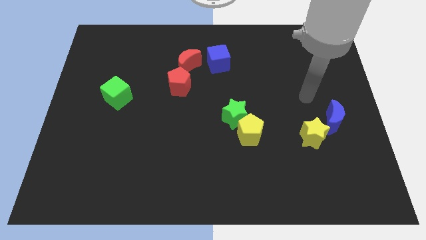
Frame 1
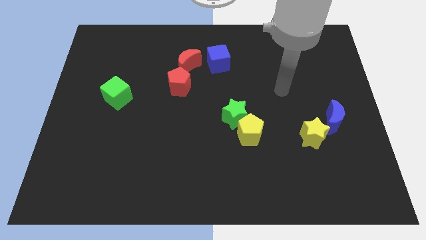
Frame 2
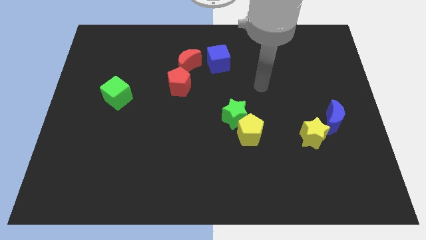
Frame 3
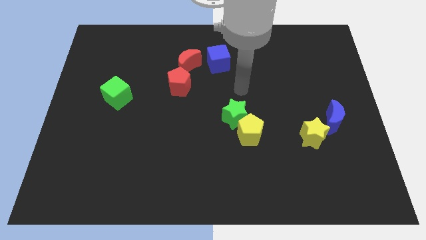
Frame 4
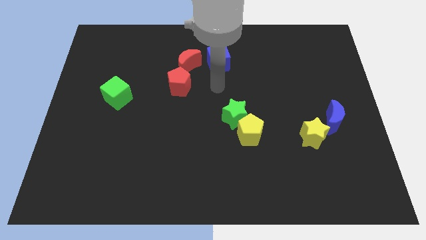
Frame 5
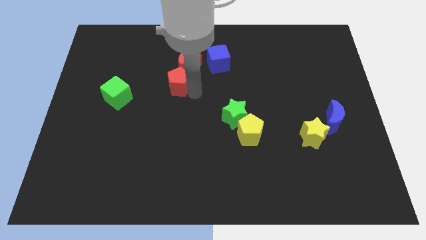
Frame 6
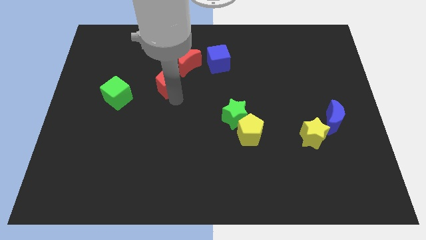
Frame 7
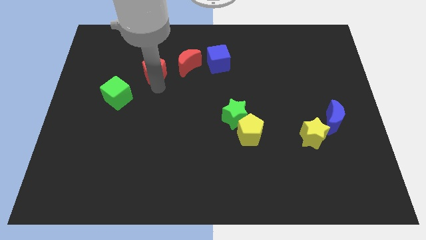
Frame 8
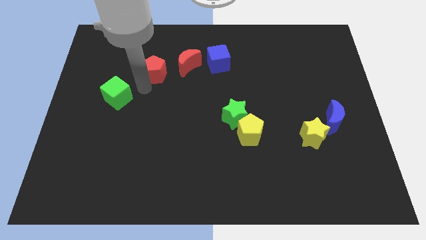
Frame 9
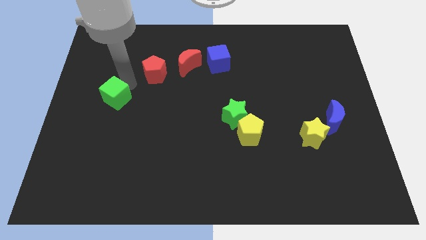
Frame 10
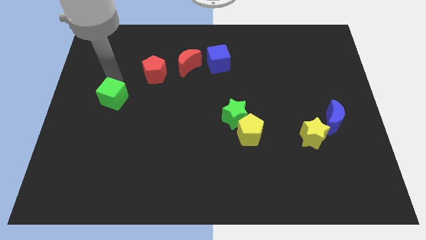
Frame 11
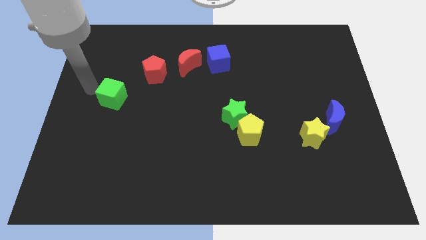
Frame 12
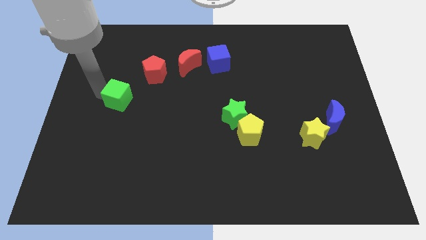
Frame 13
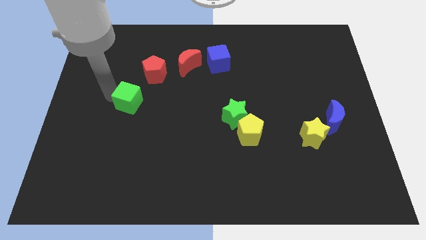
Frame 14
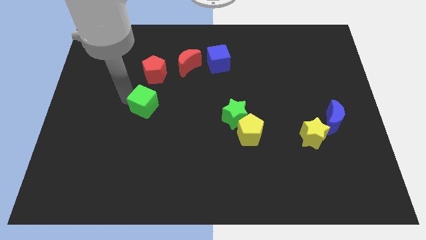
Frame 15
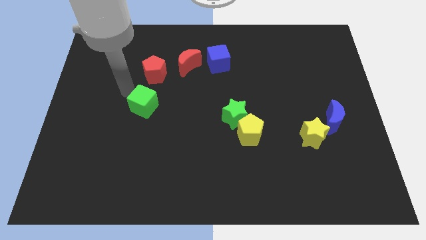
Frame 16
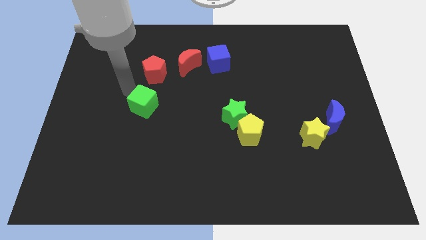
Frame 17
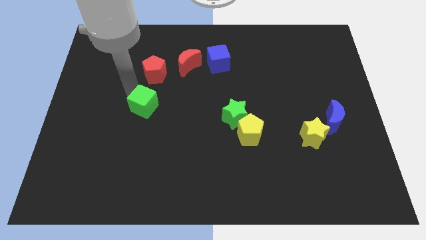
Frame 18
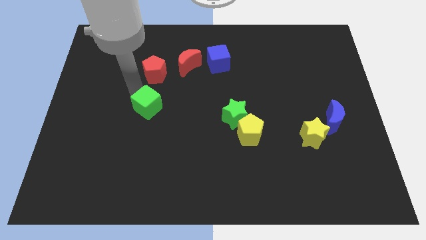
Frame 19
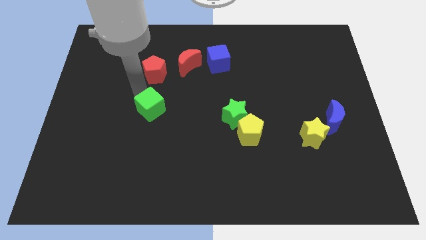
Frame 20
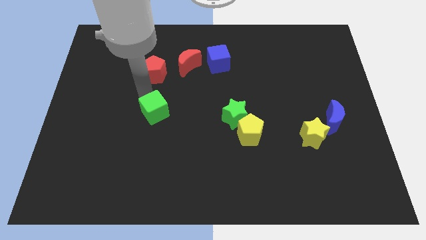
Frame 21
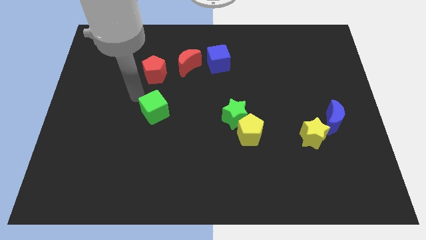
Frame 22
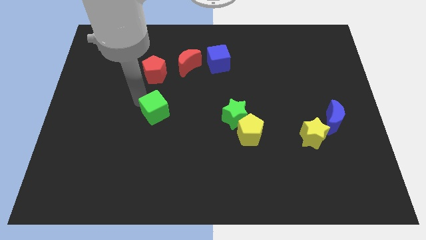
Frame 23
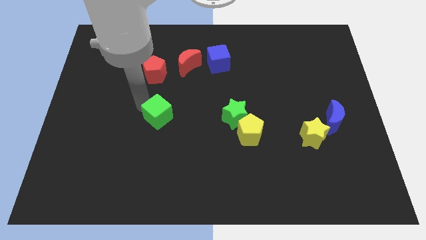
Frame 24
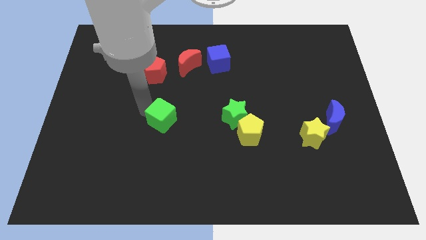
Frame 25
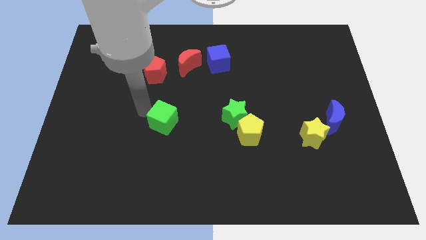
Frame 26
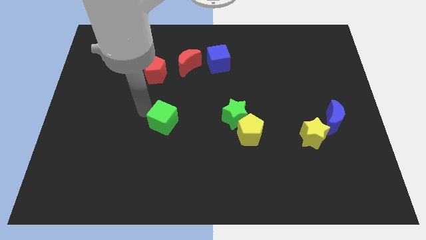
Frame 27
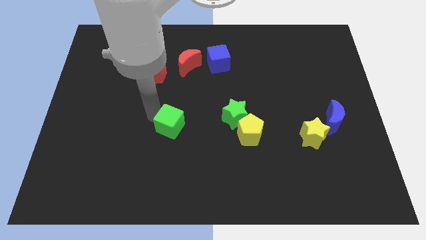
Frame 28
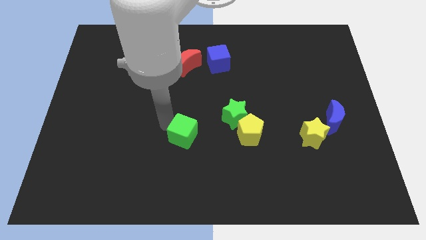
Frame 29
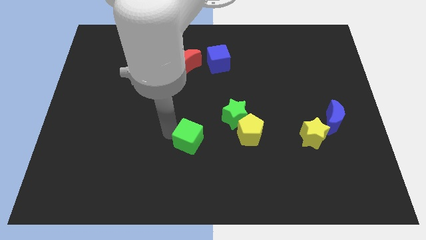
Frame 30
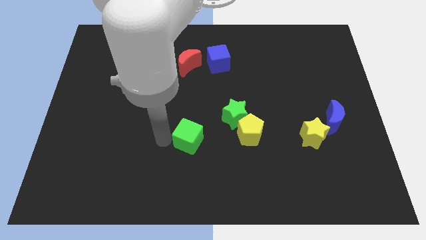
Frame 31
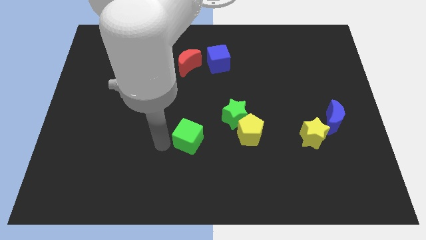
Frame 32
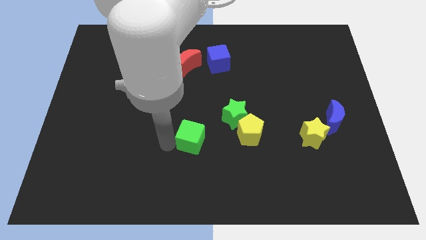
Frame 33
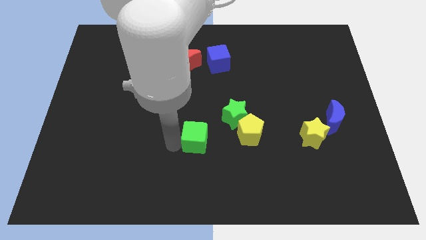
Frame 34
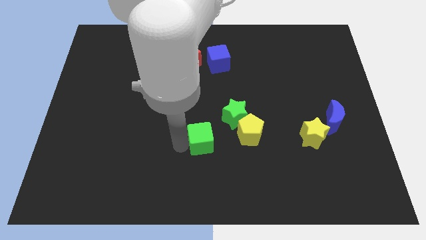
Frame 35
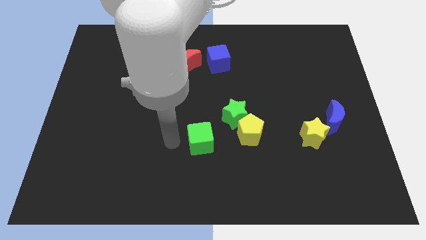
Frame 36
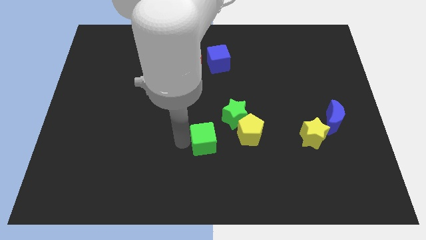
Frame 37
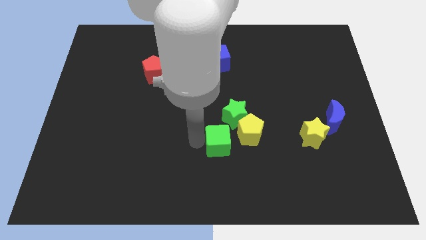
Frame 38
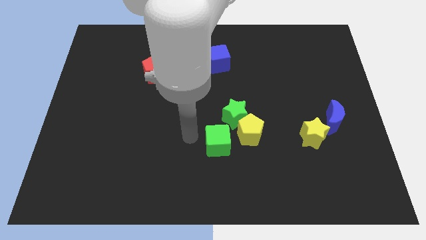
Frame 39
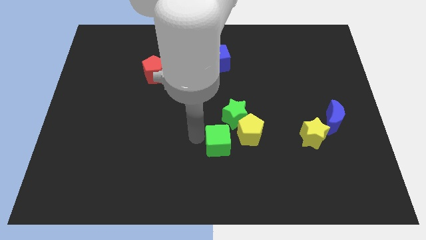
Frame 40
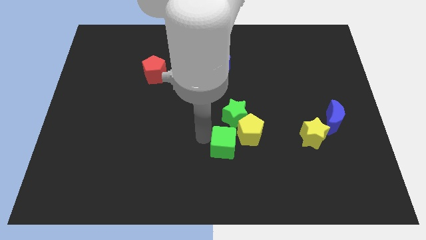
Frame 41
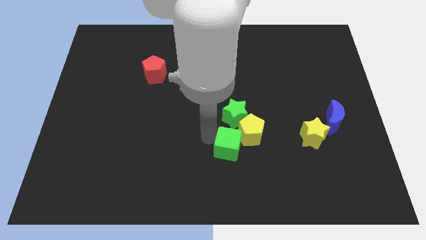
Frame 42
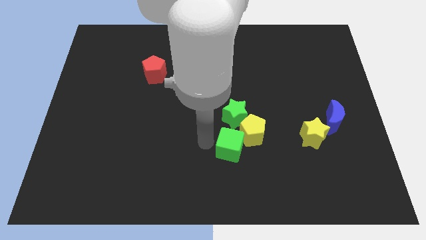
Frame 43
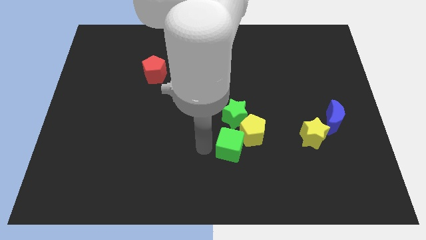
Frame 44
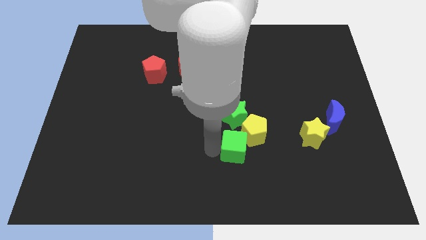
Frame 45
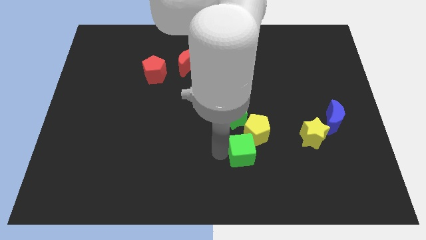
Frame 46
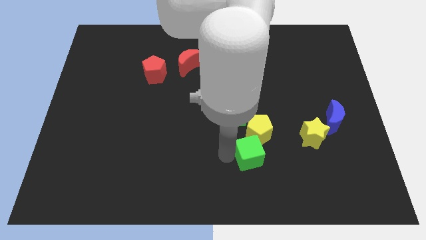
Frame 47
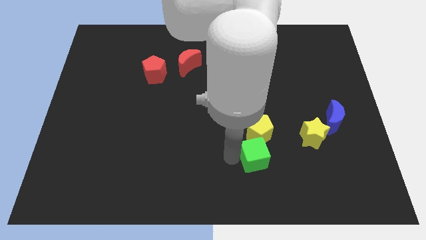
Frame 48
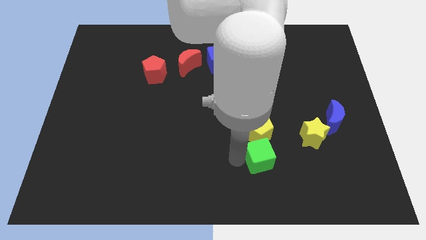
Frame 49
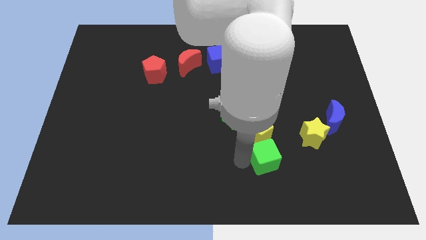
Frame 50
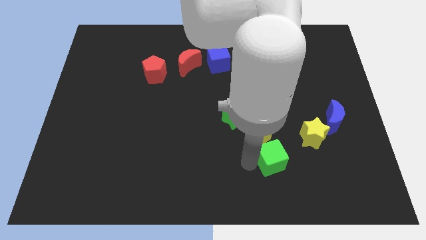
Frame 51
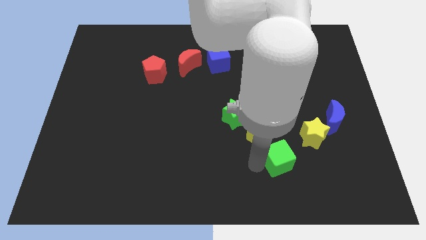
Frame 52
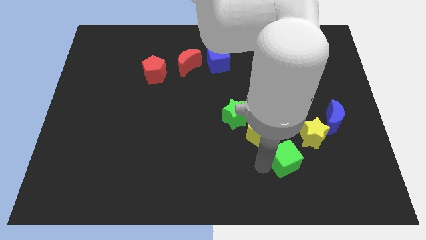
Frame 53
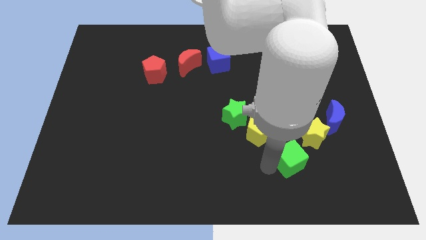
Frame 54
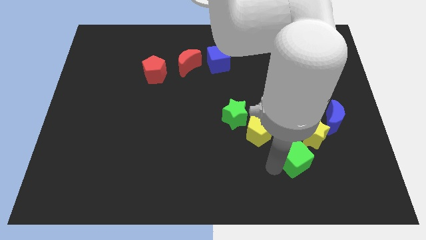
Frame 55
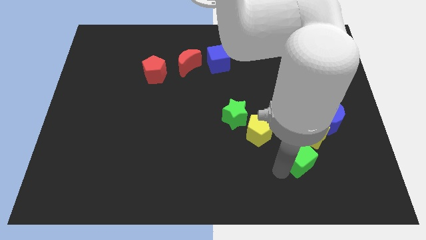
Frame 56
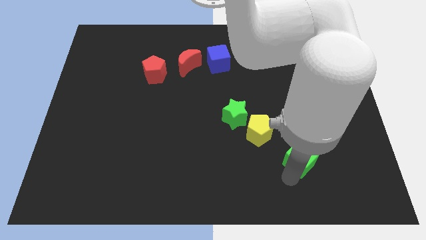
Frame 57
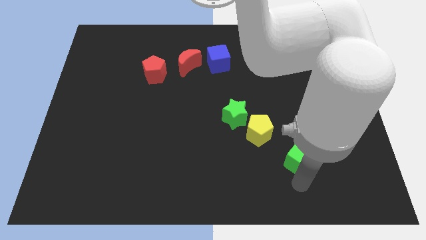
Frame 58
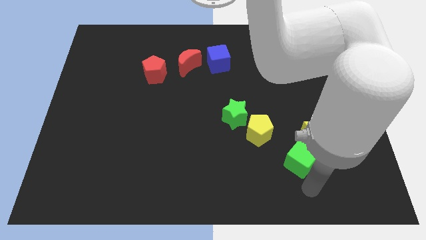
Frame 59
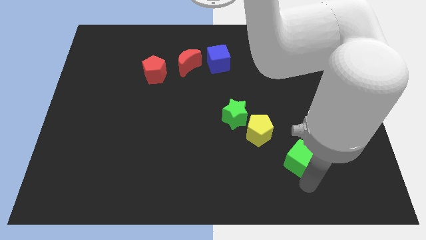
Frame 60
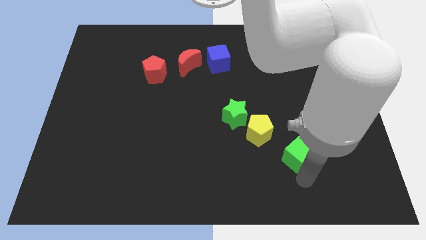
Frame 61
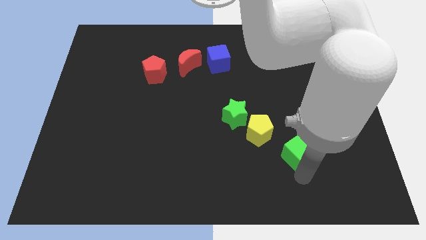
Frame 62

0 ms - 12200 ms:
push the green cube to the yellow star

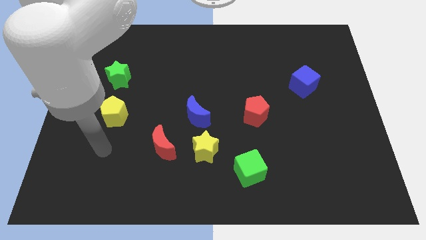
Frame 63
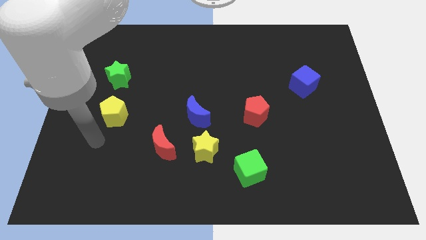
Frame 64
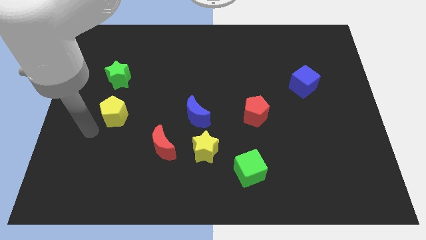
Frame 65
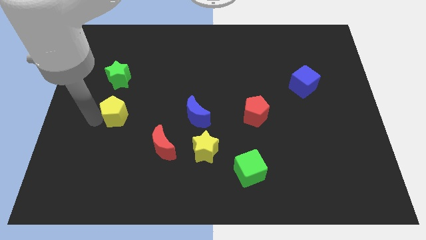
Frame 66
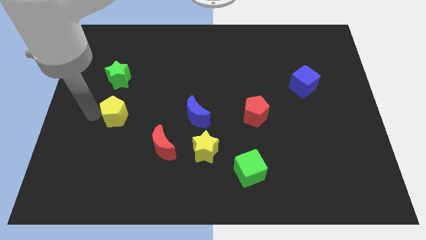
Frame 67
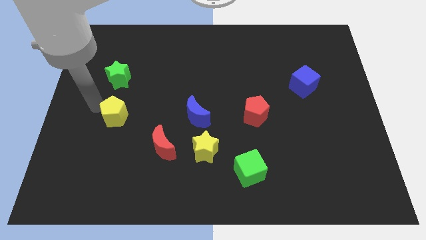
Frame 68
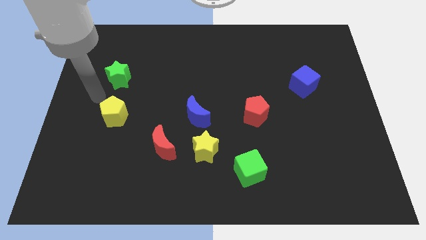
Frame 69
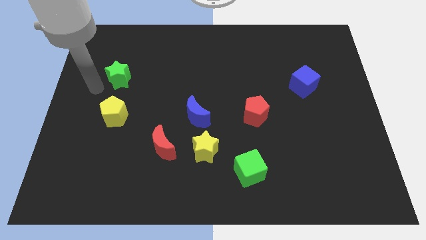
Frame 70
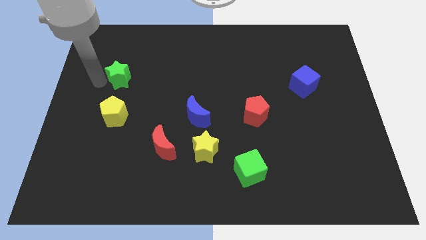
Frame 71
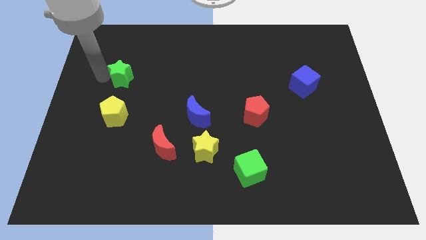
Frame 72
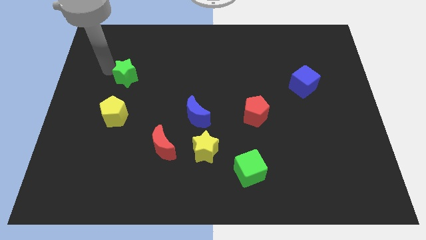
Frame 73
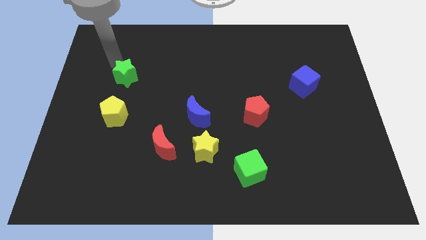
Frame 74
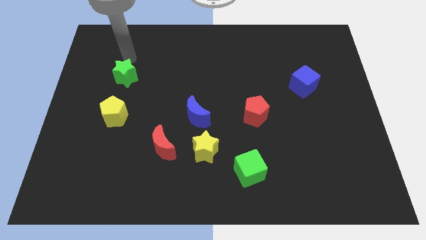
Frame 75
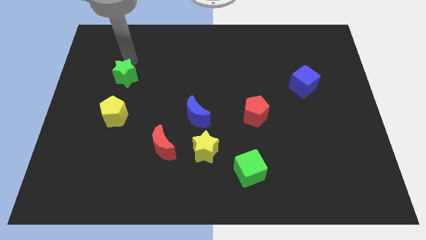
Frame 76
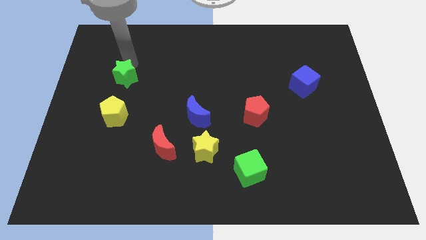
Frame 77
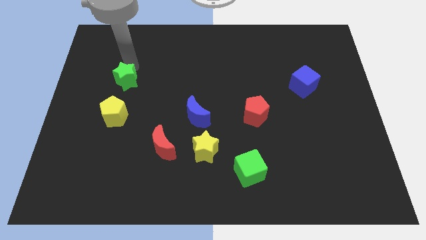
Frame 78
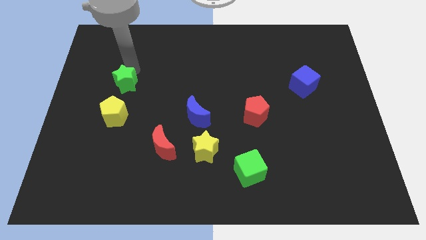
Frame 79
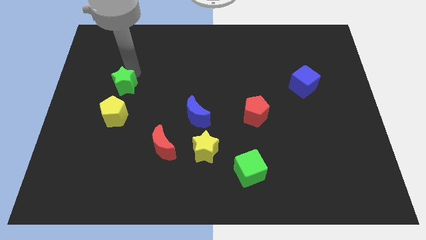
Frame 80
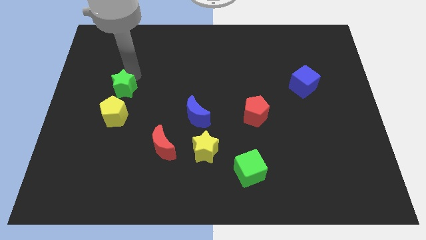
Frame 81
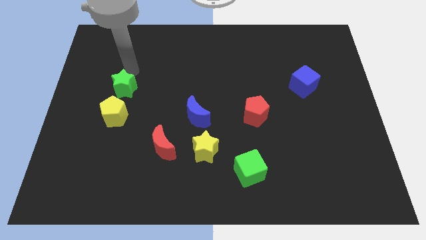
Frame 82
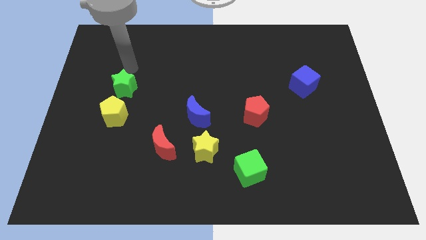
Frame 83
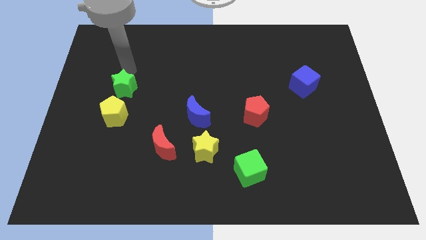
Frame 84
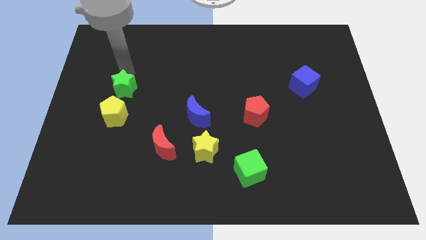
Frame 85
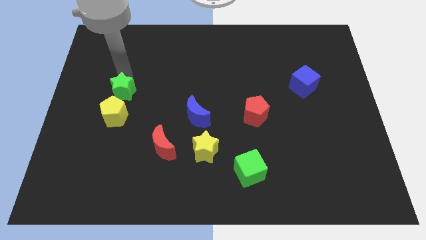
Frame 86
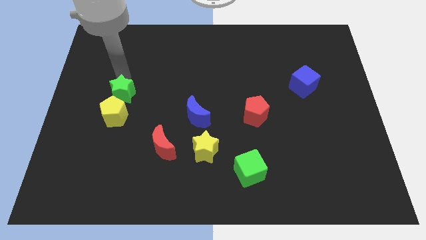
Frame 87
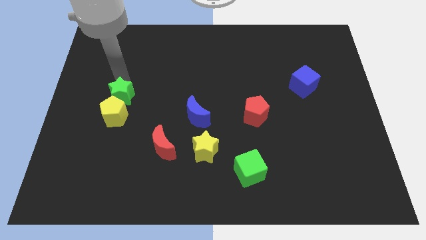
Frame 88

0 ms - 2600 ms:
move the green star next to the yellow pentagon
